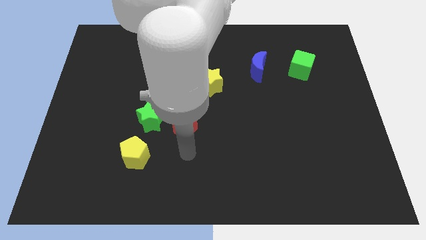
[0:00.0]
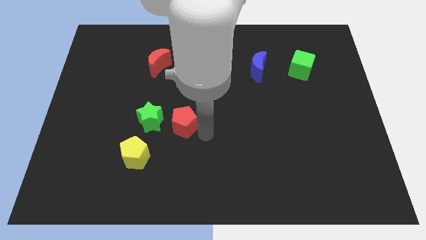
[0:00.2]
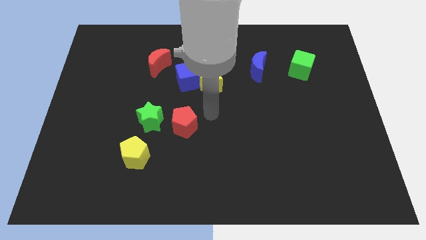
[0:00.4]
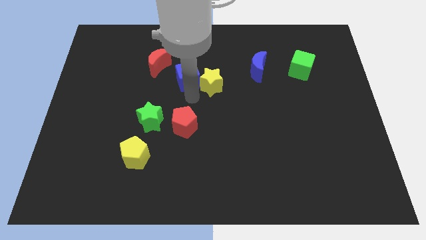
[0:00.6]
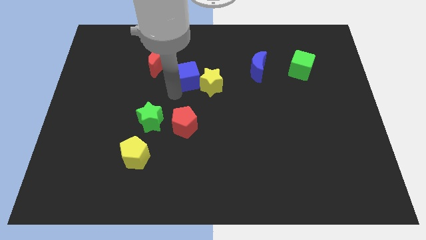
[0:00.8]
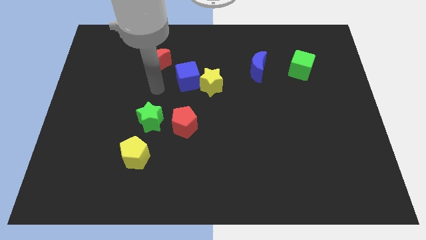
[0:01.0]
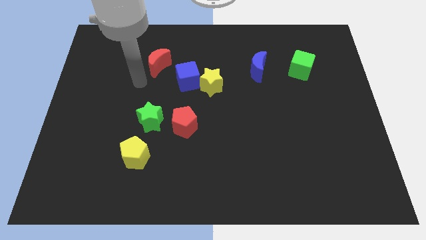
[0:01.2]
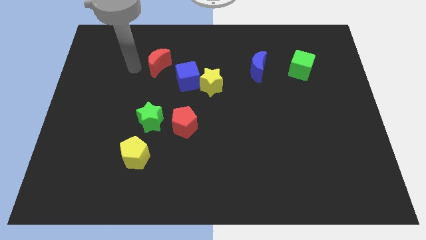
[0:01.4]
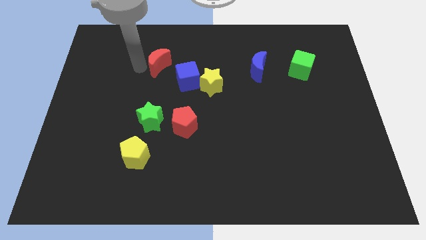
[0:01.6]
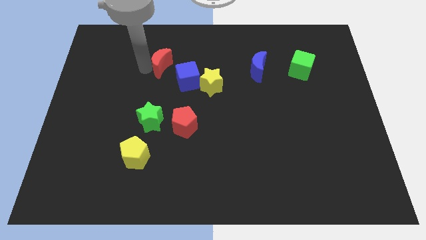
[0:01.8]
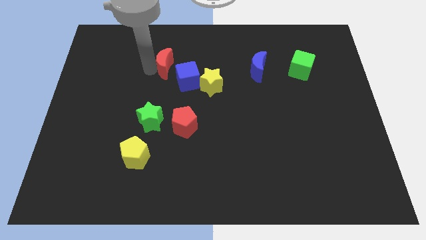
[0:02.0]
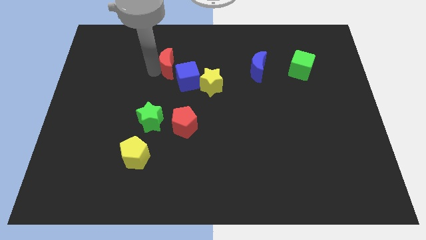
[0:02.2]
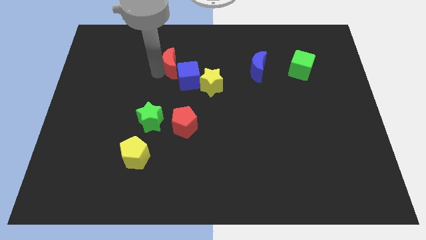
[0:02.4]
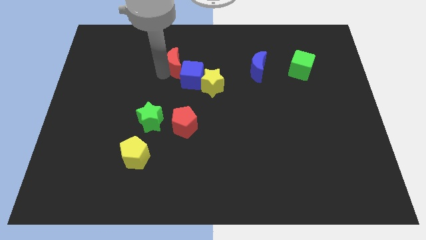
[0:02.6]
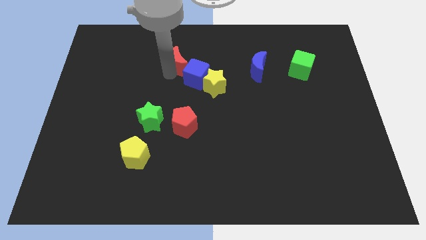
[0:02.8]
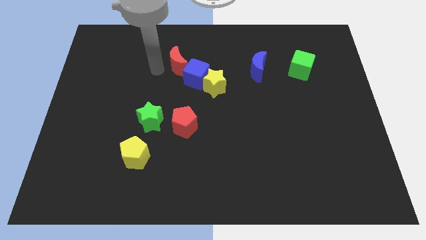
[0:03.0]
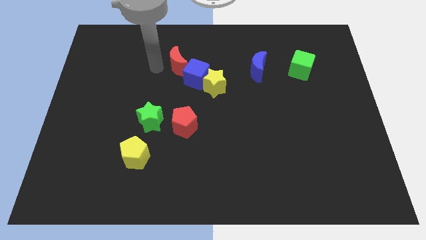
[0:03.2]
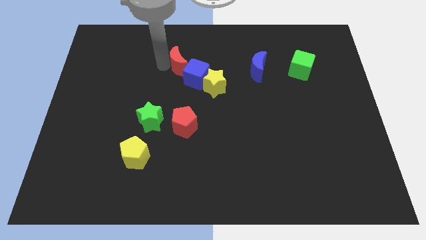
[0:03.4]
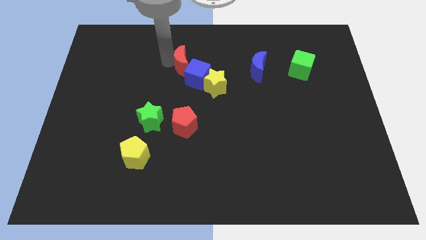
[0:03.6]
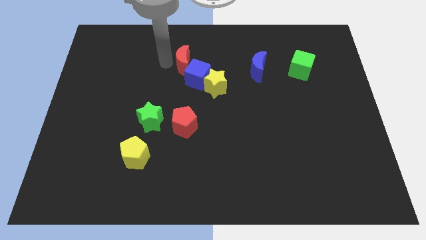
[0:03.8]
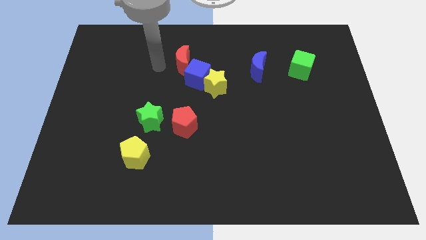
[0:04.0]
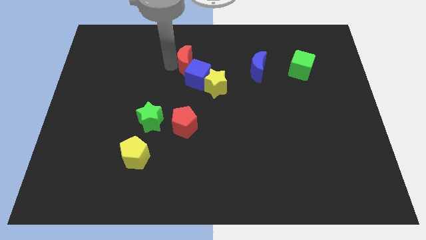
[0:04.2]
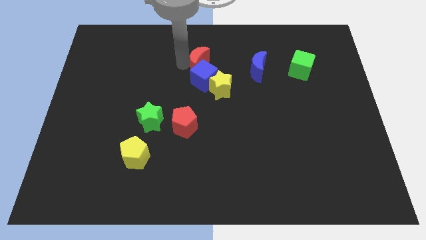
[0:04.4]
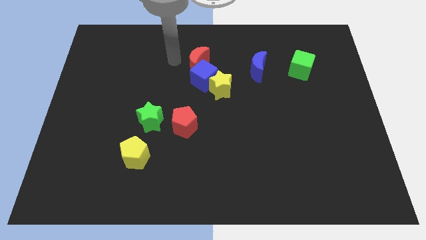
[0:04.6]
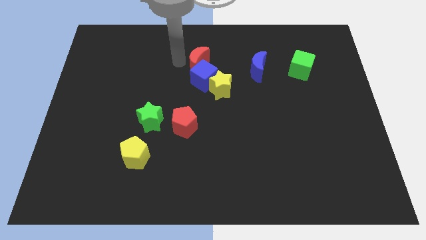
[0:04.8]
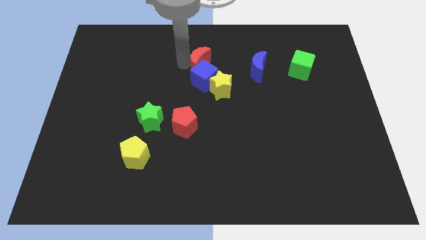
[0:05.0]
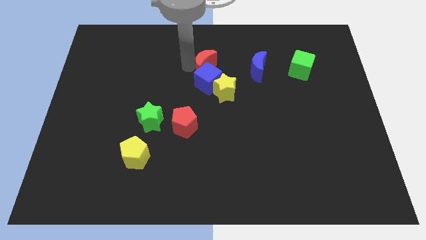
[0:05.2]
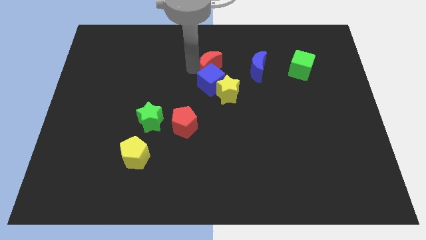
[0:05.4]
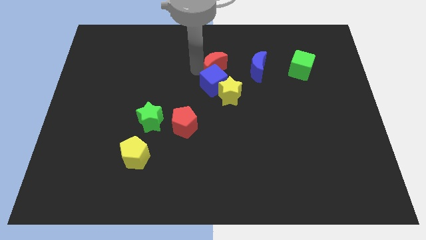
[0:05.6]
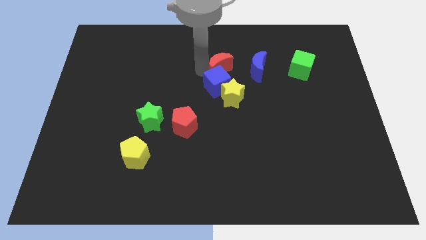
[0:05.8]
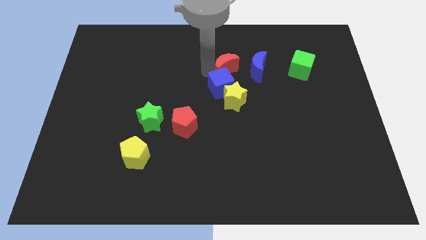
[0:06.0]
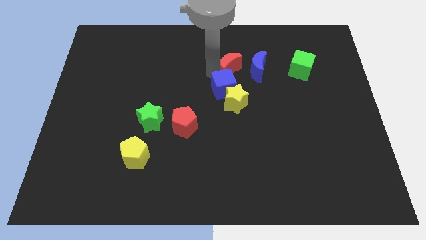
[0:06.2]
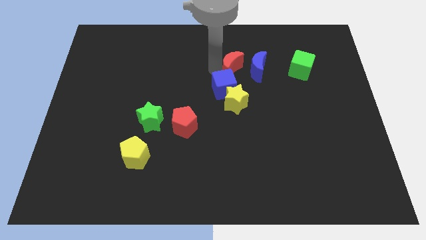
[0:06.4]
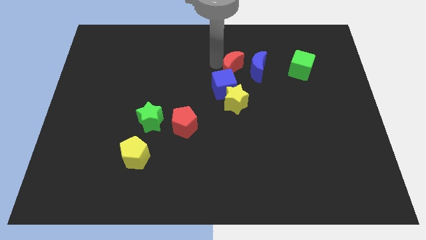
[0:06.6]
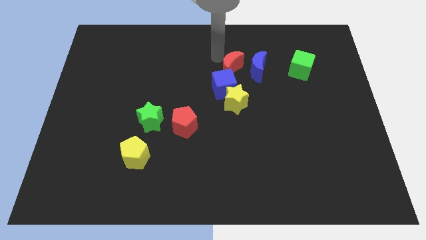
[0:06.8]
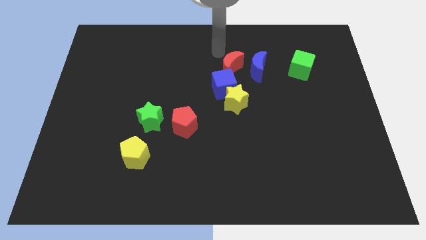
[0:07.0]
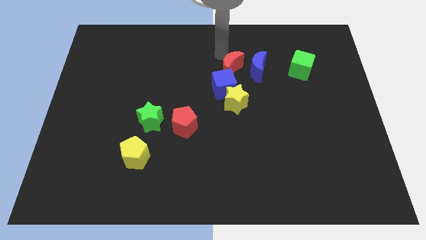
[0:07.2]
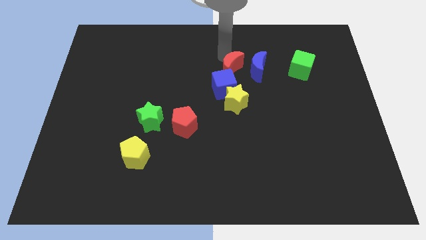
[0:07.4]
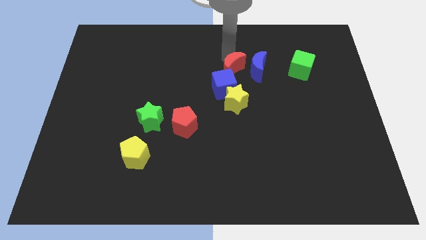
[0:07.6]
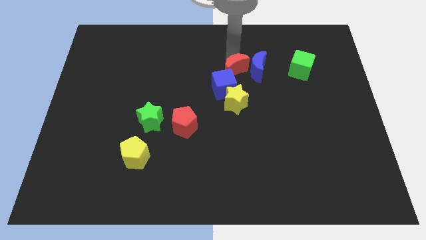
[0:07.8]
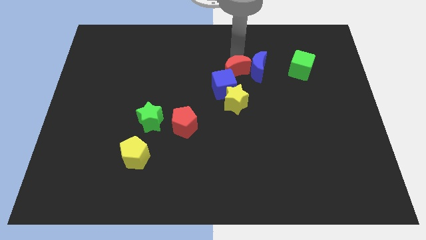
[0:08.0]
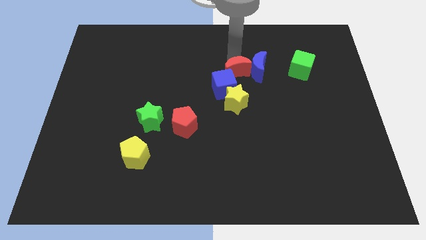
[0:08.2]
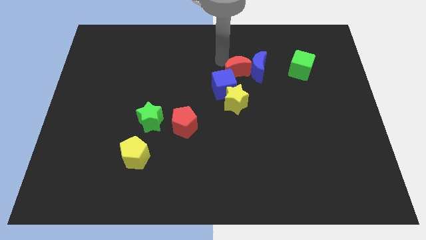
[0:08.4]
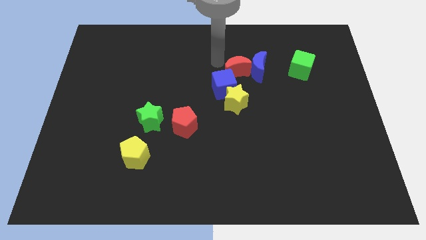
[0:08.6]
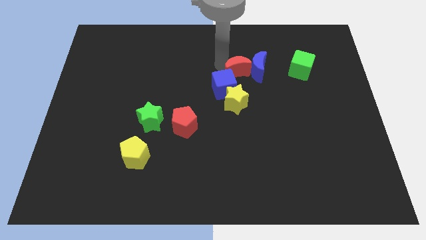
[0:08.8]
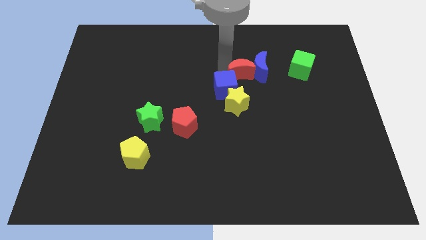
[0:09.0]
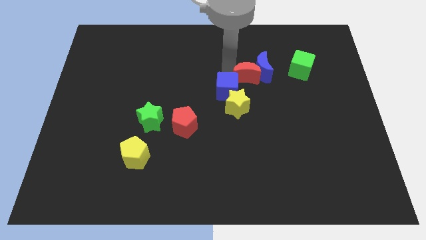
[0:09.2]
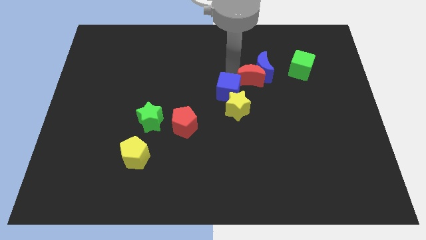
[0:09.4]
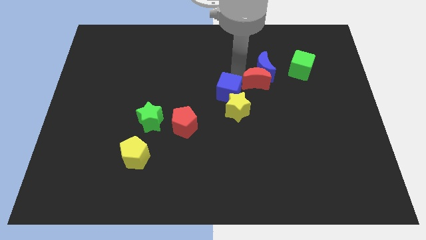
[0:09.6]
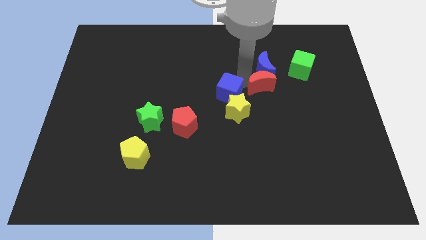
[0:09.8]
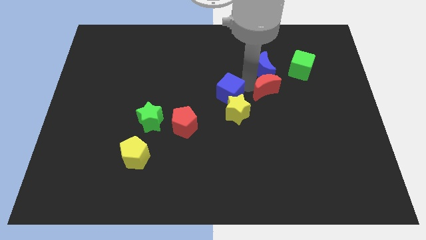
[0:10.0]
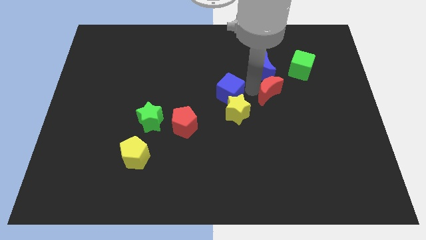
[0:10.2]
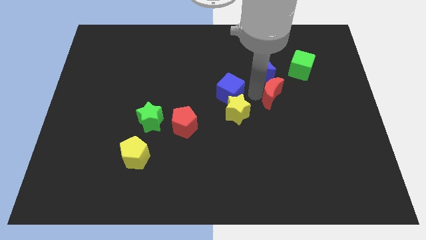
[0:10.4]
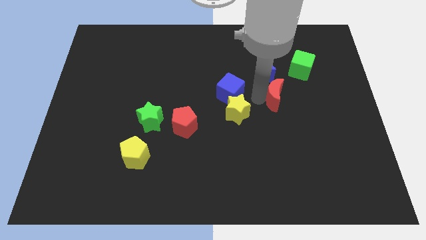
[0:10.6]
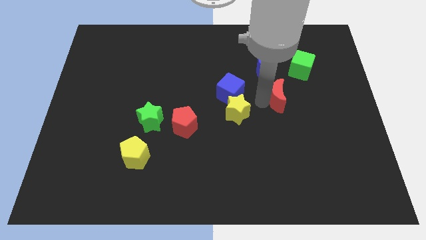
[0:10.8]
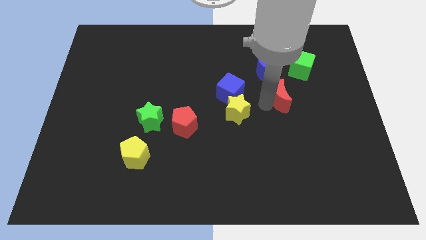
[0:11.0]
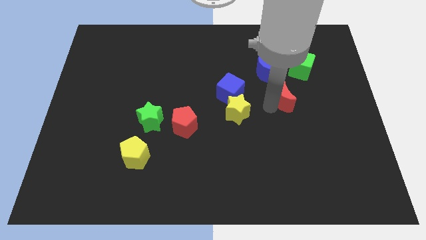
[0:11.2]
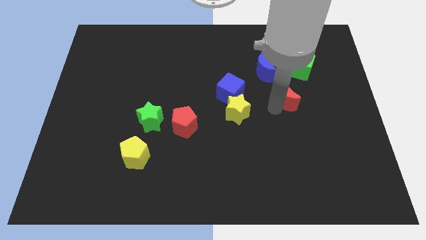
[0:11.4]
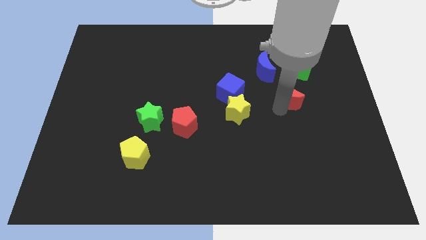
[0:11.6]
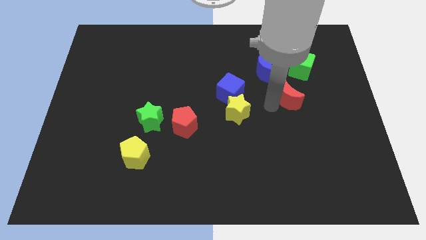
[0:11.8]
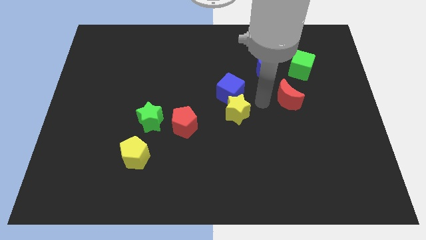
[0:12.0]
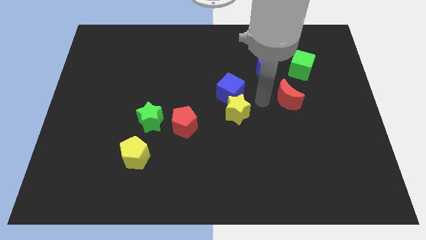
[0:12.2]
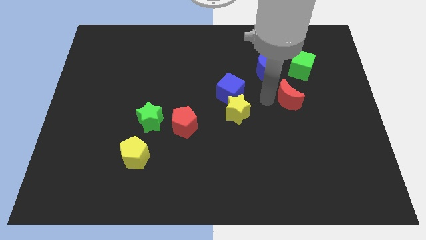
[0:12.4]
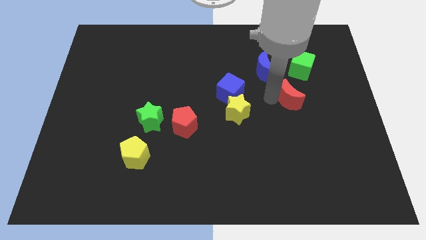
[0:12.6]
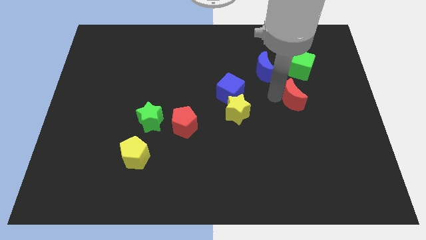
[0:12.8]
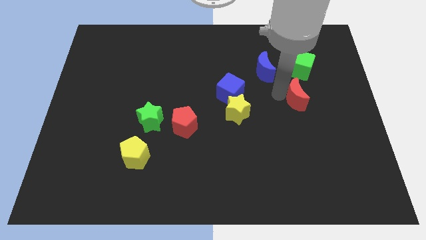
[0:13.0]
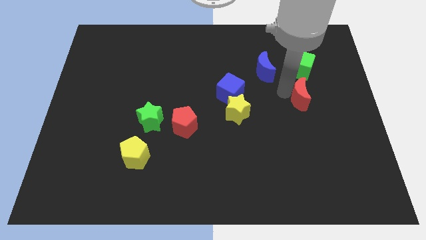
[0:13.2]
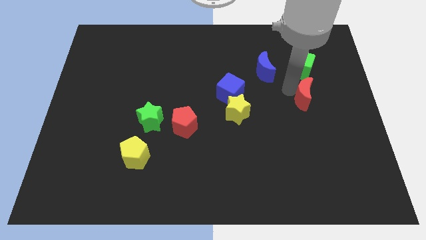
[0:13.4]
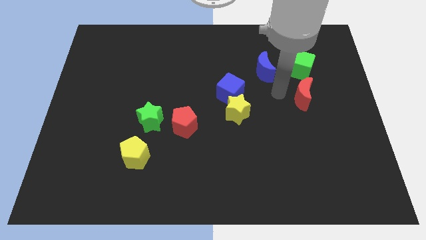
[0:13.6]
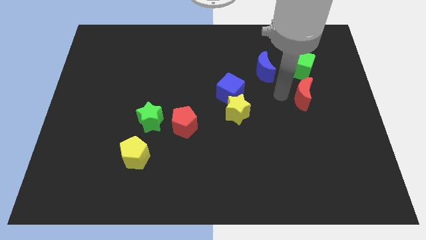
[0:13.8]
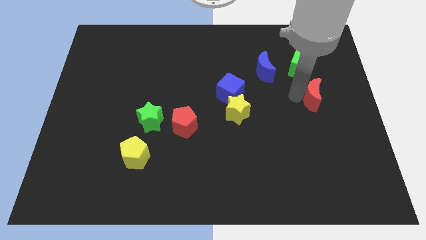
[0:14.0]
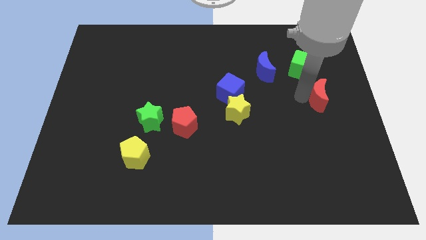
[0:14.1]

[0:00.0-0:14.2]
push the red moon to the center right

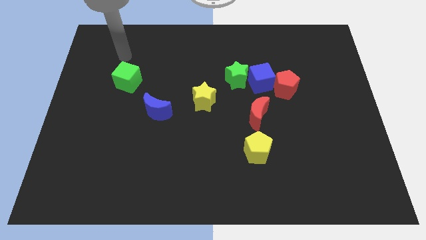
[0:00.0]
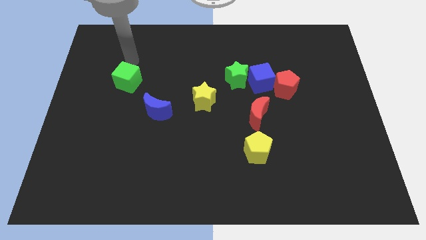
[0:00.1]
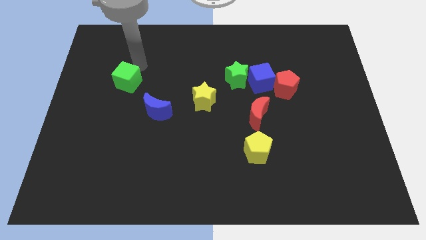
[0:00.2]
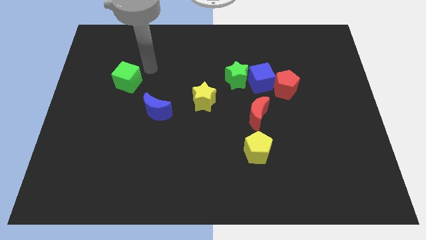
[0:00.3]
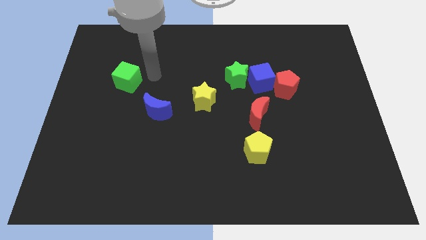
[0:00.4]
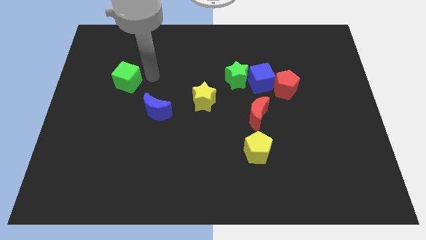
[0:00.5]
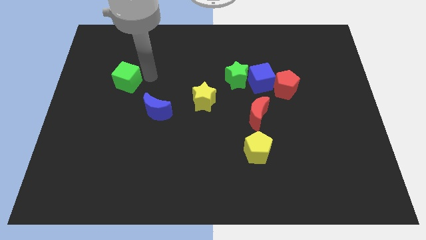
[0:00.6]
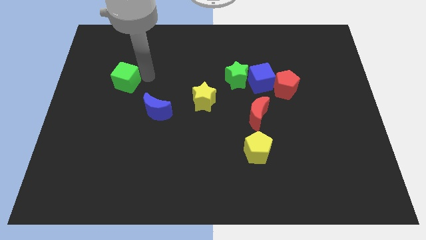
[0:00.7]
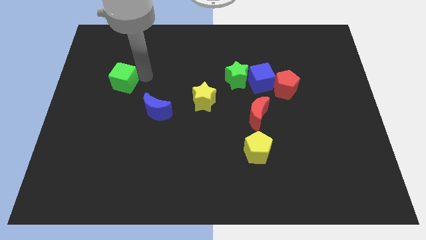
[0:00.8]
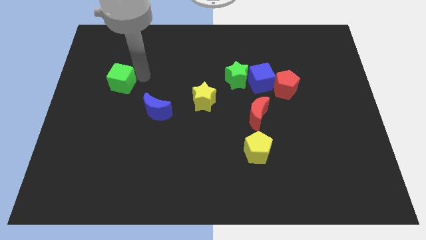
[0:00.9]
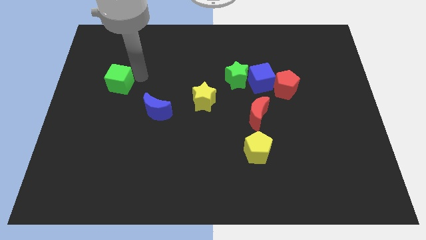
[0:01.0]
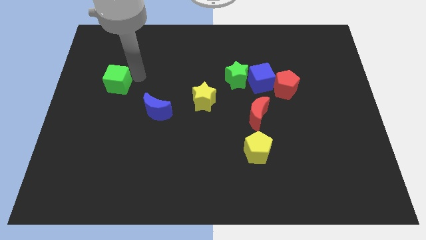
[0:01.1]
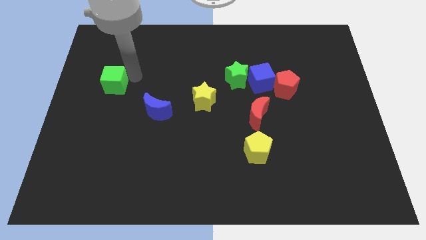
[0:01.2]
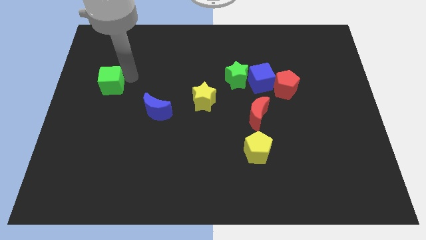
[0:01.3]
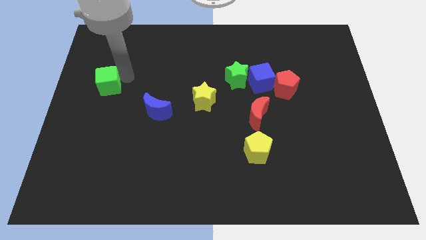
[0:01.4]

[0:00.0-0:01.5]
put the green cube to the center left
